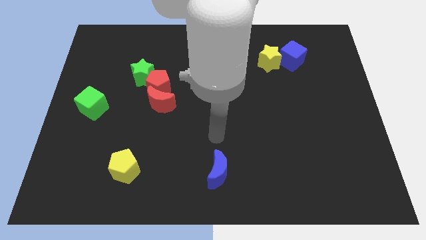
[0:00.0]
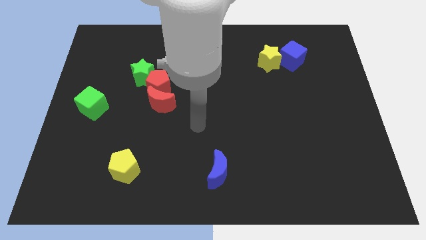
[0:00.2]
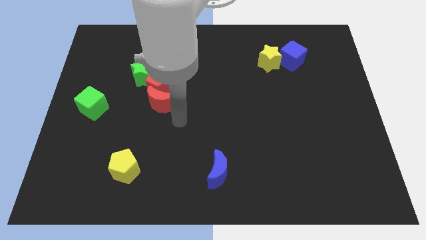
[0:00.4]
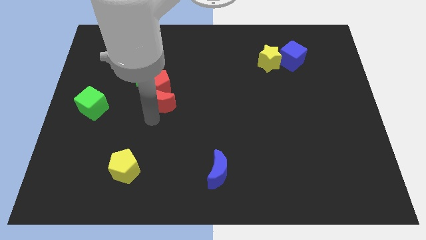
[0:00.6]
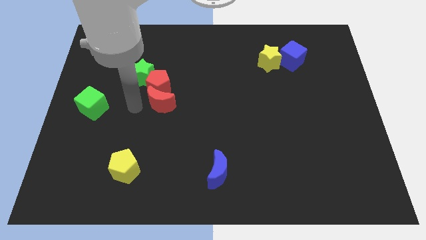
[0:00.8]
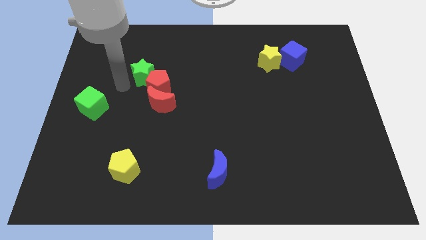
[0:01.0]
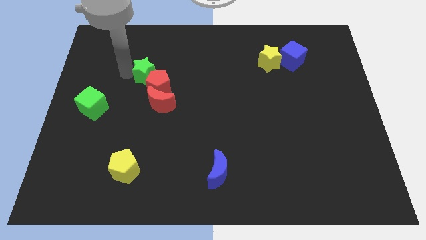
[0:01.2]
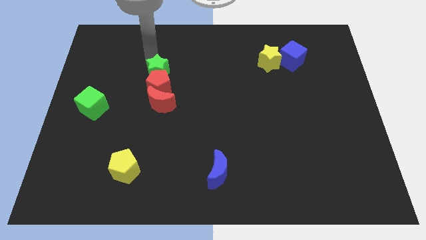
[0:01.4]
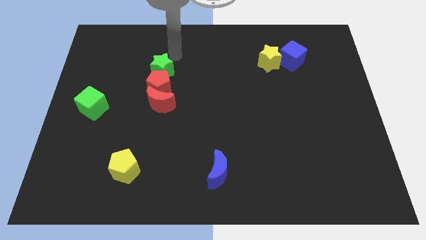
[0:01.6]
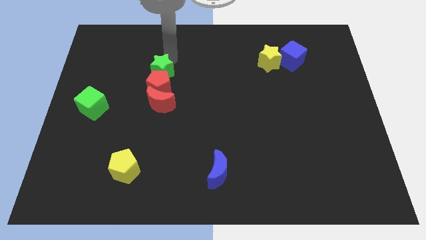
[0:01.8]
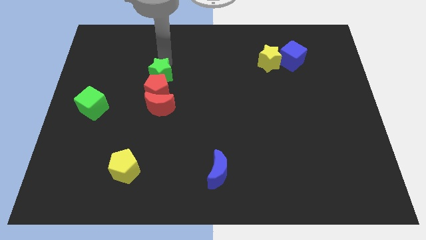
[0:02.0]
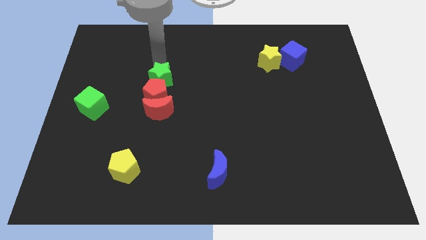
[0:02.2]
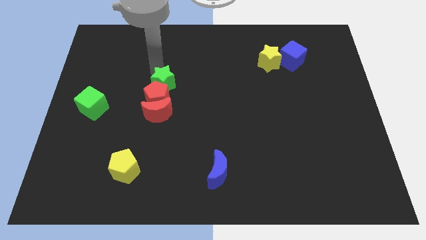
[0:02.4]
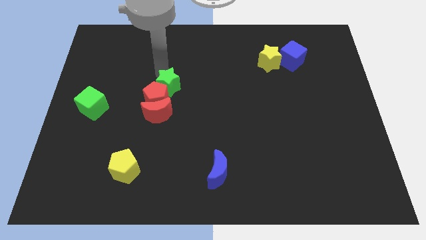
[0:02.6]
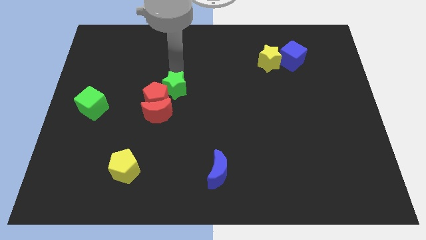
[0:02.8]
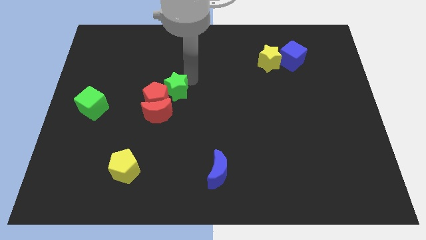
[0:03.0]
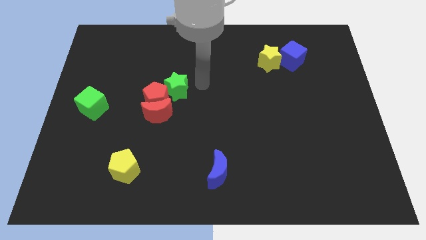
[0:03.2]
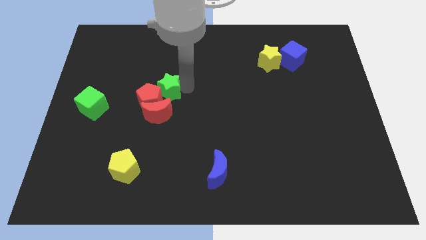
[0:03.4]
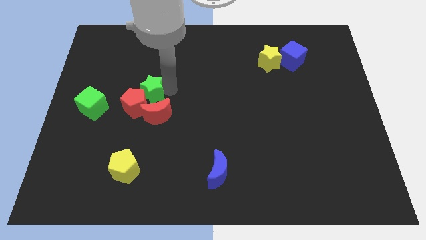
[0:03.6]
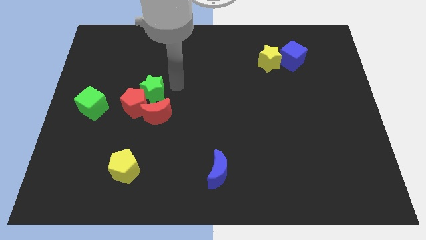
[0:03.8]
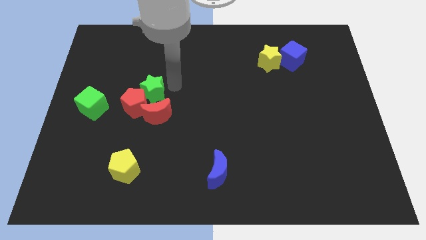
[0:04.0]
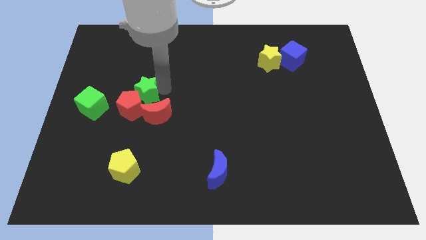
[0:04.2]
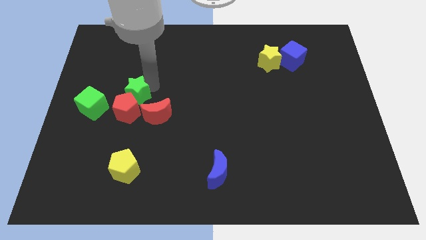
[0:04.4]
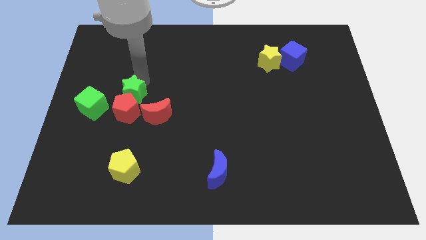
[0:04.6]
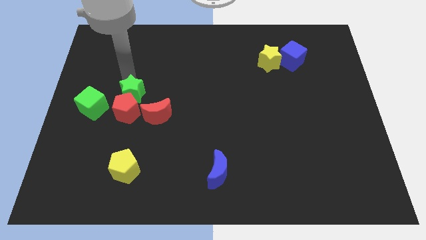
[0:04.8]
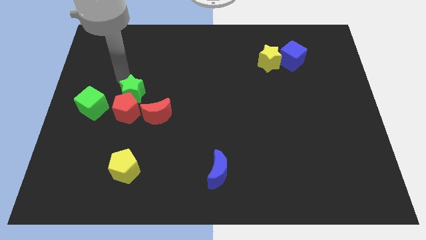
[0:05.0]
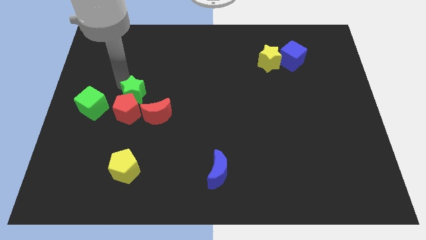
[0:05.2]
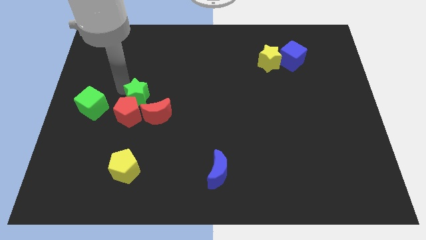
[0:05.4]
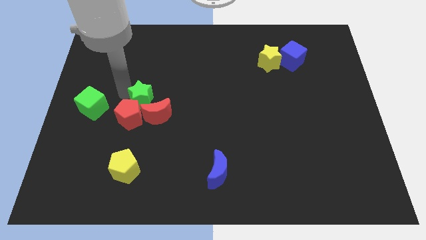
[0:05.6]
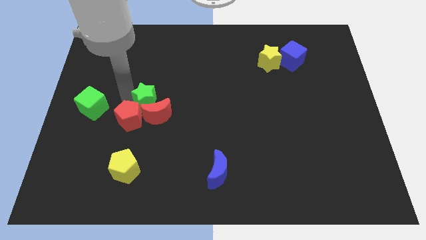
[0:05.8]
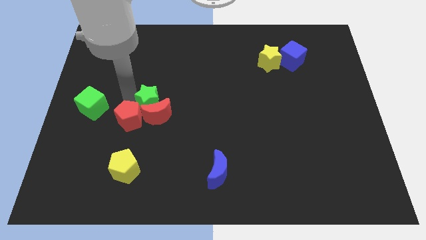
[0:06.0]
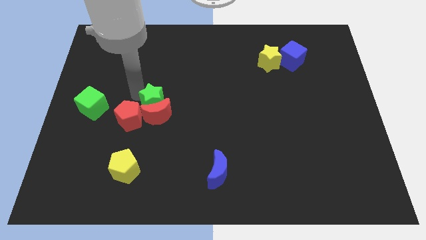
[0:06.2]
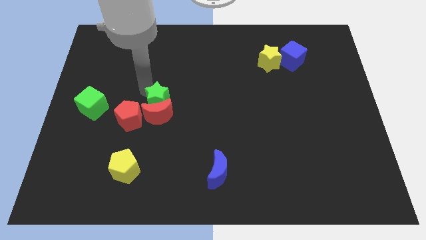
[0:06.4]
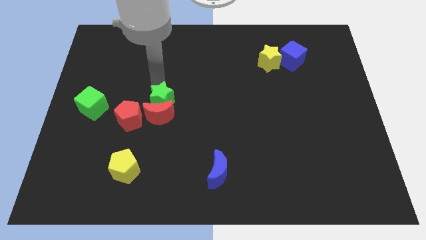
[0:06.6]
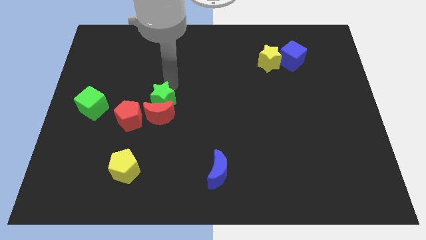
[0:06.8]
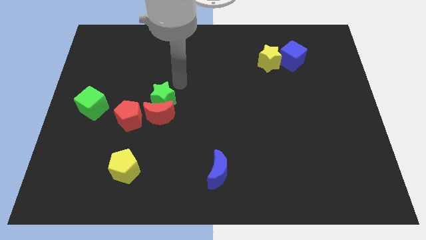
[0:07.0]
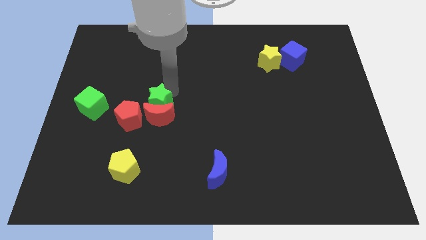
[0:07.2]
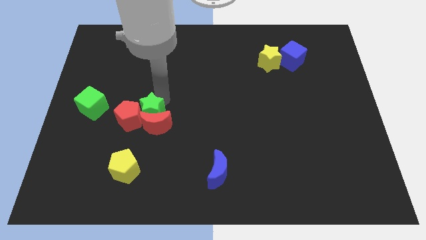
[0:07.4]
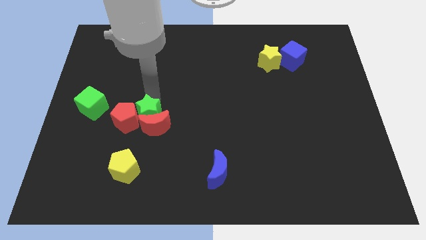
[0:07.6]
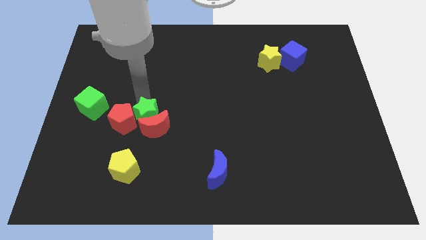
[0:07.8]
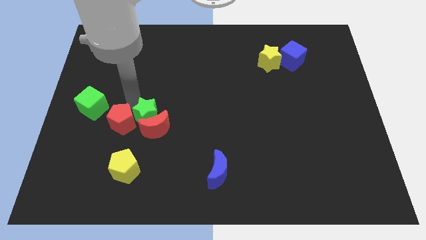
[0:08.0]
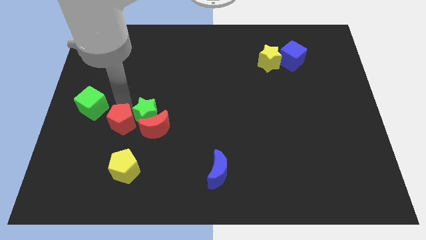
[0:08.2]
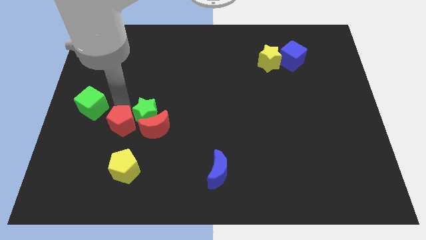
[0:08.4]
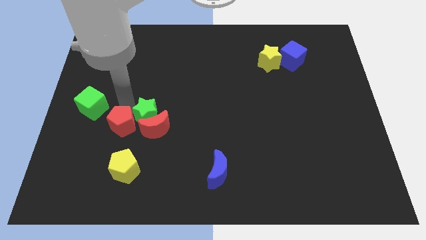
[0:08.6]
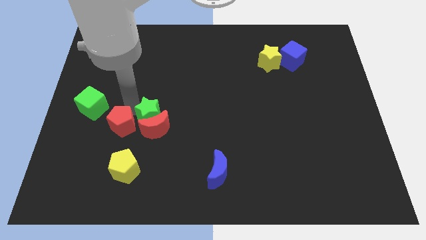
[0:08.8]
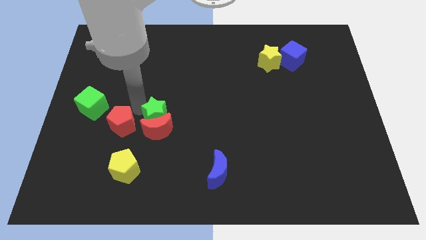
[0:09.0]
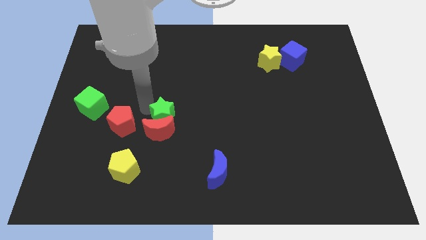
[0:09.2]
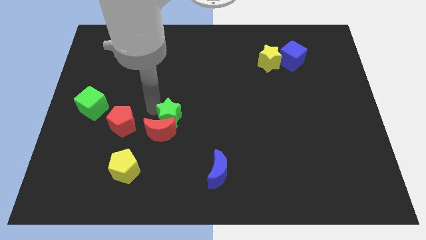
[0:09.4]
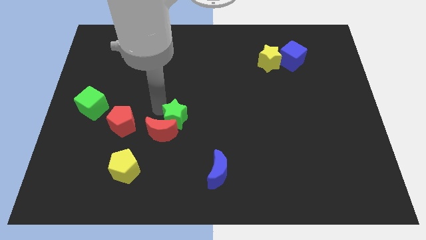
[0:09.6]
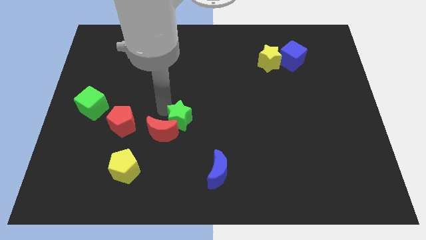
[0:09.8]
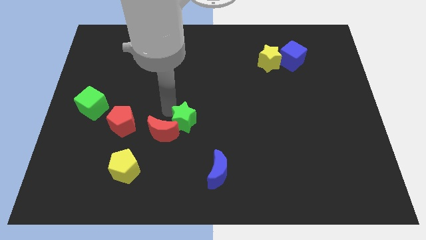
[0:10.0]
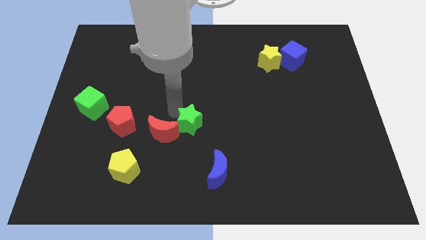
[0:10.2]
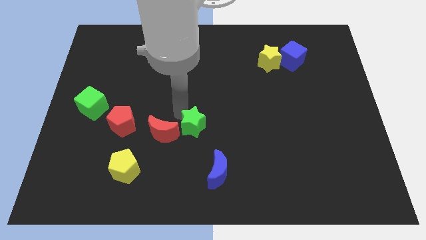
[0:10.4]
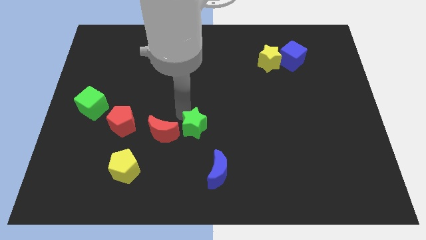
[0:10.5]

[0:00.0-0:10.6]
move the green star down and then right

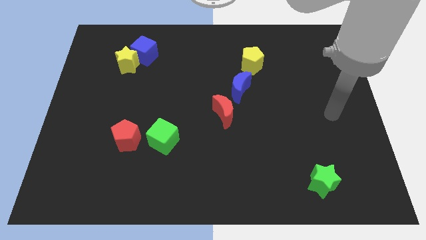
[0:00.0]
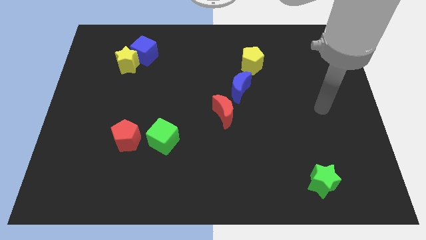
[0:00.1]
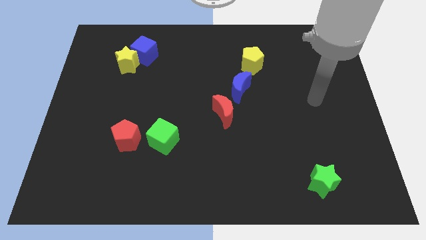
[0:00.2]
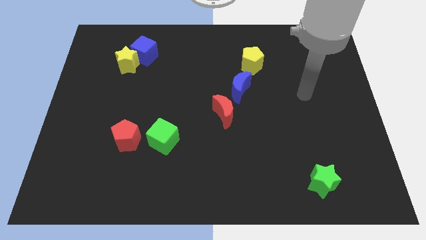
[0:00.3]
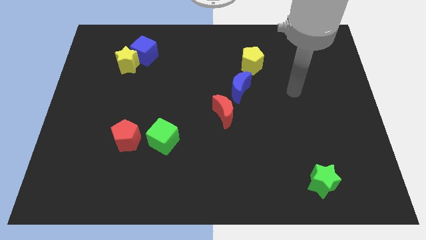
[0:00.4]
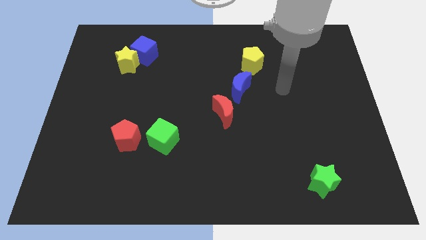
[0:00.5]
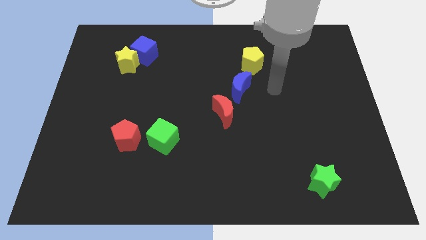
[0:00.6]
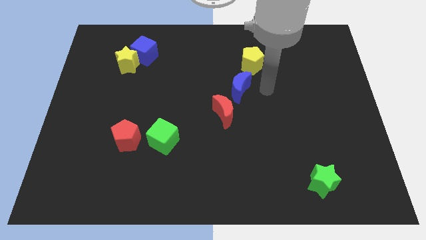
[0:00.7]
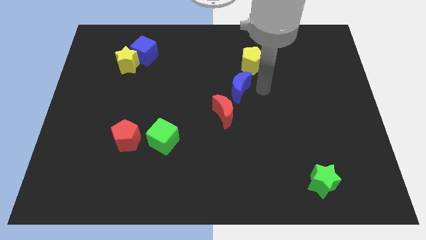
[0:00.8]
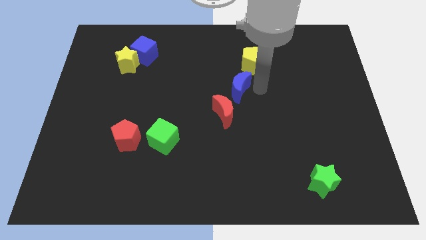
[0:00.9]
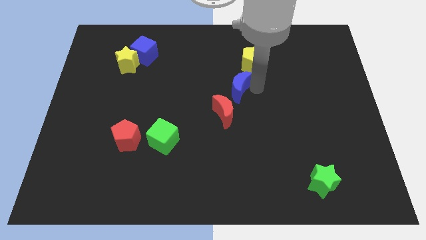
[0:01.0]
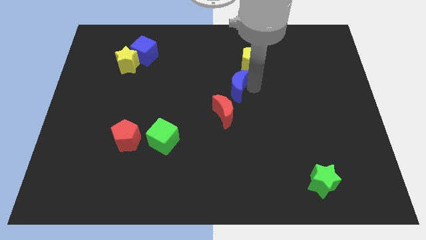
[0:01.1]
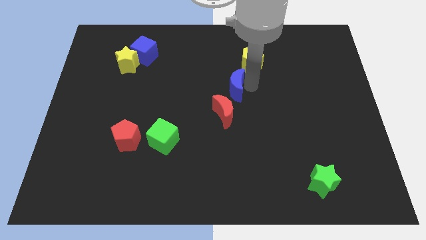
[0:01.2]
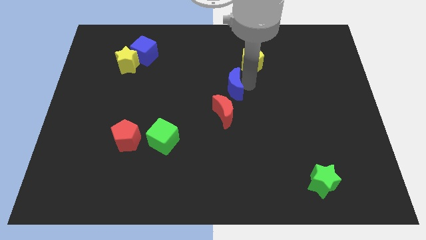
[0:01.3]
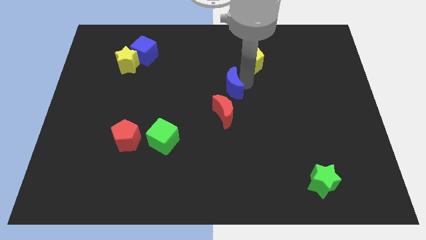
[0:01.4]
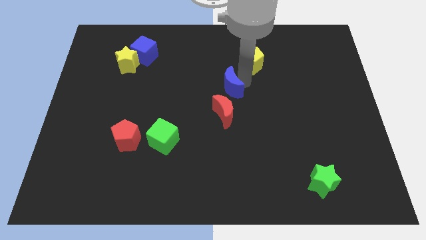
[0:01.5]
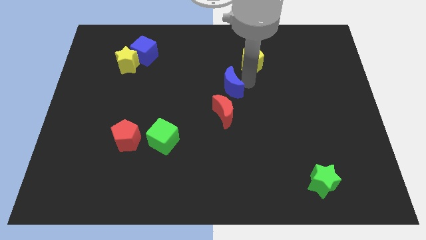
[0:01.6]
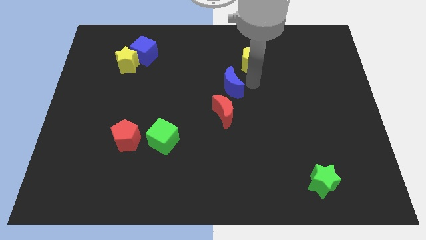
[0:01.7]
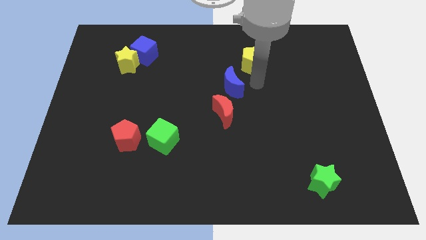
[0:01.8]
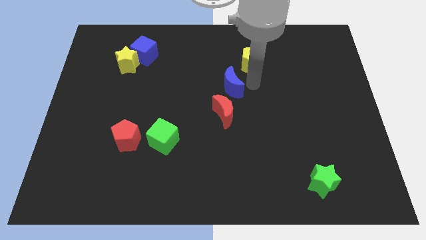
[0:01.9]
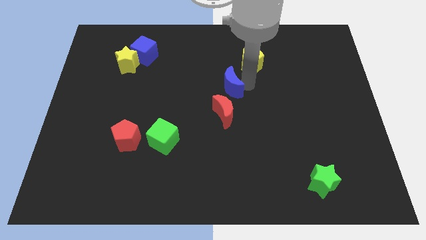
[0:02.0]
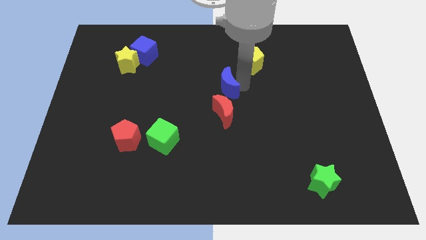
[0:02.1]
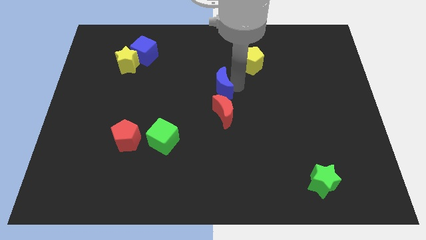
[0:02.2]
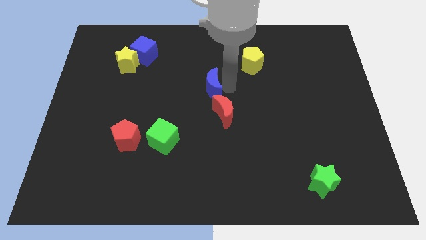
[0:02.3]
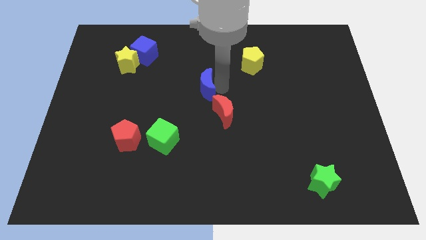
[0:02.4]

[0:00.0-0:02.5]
push the blue moon left slightly

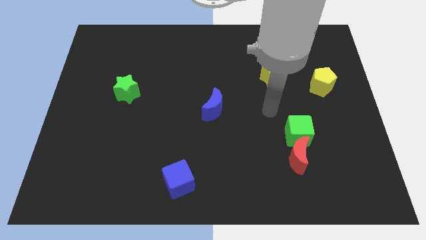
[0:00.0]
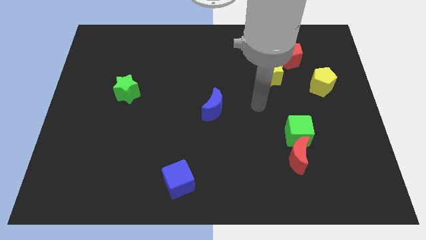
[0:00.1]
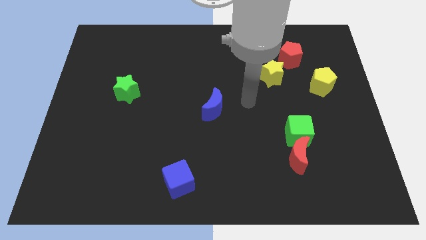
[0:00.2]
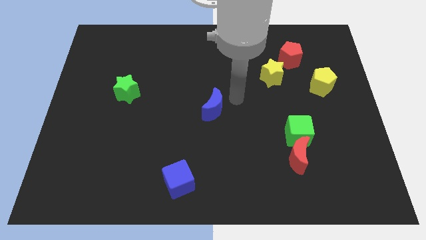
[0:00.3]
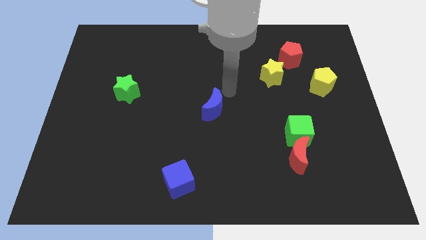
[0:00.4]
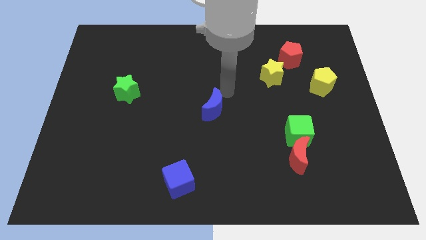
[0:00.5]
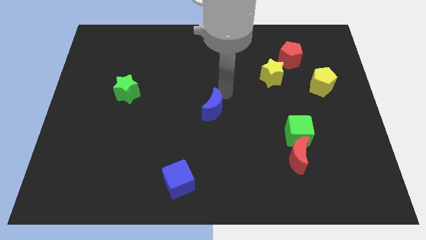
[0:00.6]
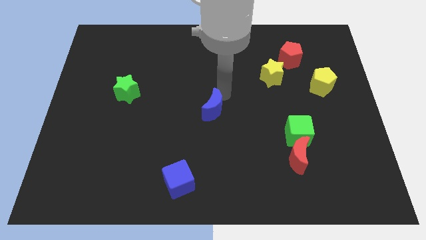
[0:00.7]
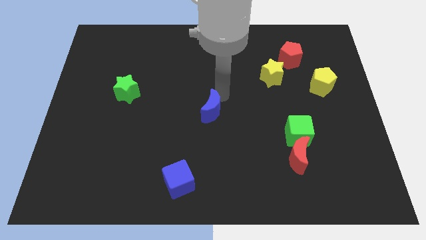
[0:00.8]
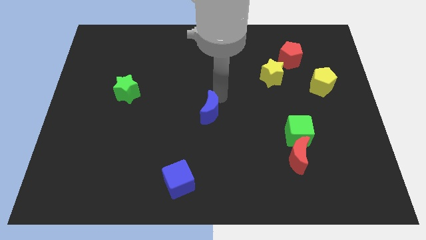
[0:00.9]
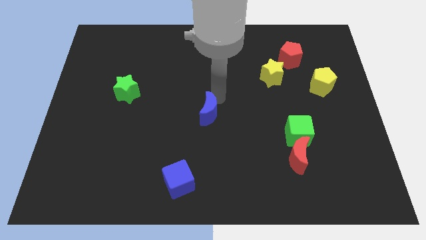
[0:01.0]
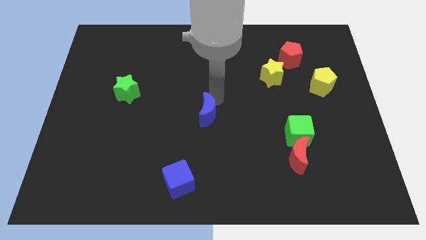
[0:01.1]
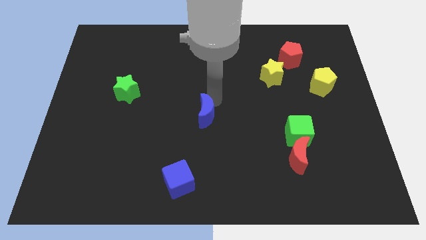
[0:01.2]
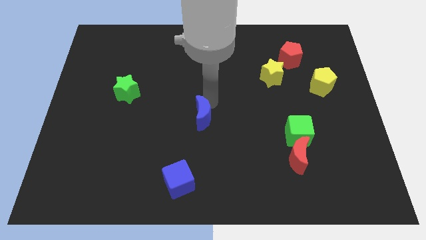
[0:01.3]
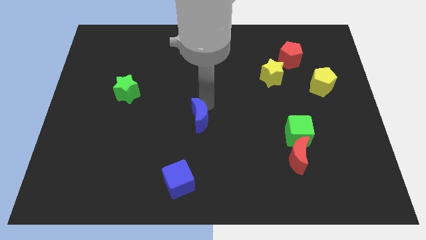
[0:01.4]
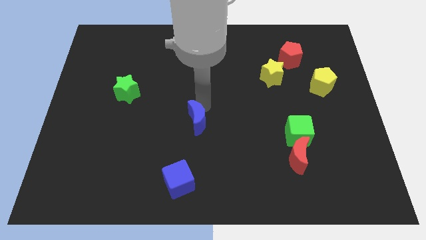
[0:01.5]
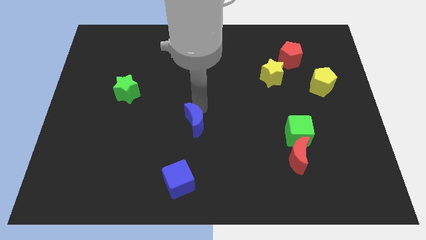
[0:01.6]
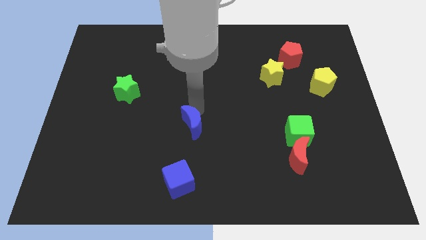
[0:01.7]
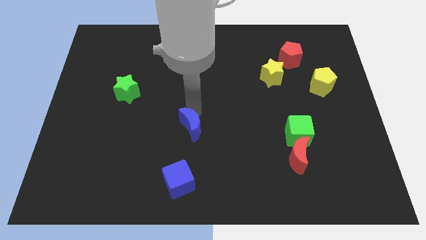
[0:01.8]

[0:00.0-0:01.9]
push the blue moon somewhat down and then to the left
